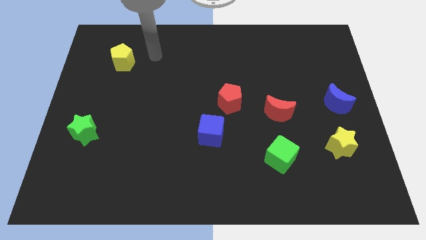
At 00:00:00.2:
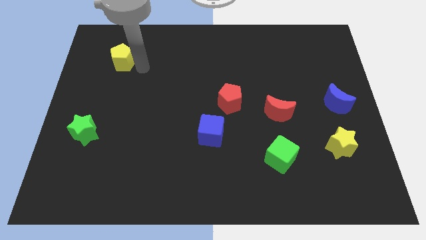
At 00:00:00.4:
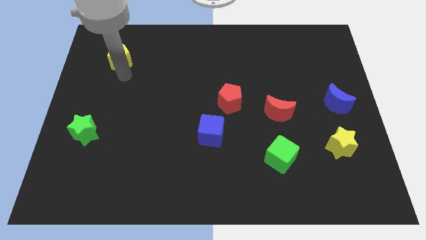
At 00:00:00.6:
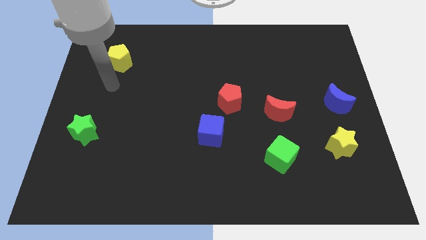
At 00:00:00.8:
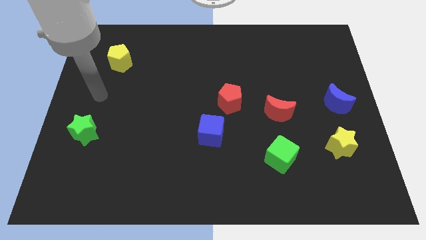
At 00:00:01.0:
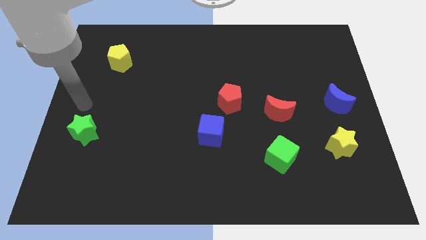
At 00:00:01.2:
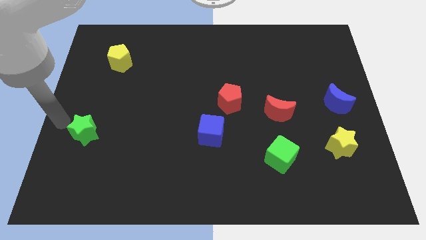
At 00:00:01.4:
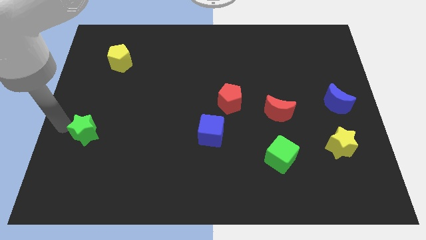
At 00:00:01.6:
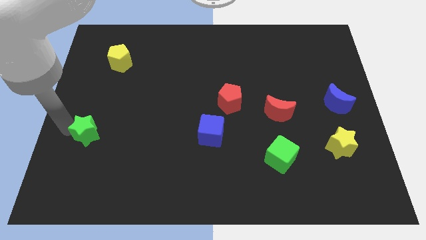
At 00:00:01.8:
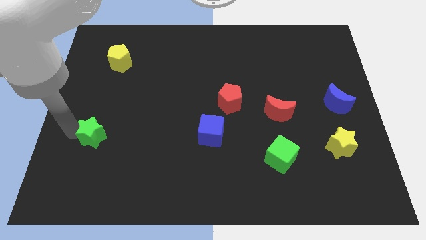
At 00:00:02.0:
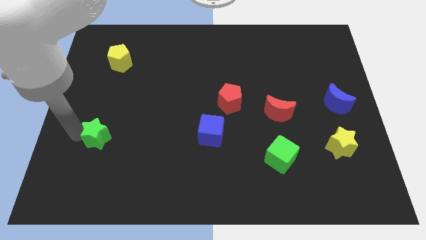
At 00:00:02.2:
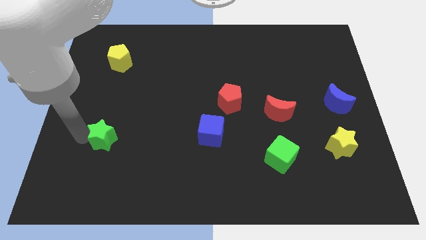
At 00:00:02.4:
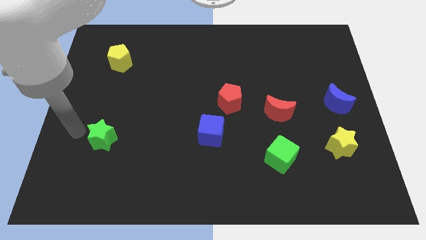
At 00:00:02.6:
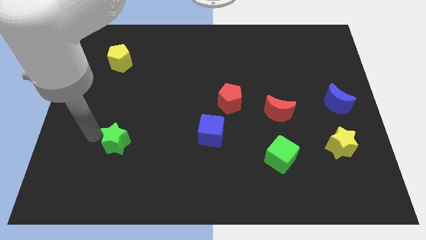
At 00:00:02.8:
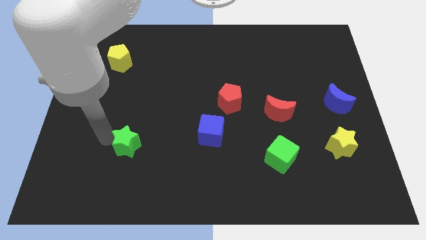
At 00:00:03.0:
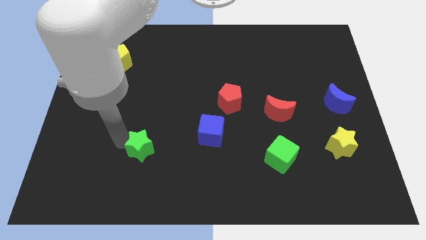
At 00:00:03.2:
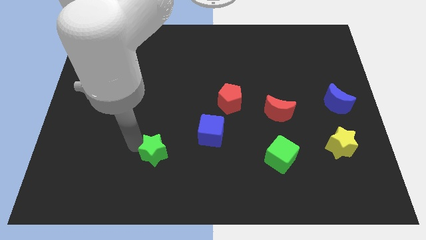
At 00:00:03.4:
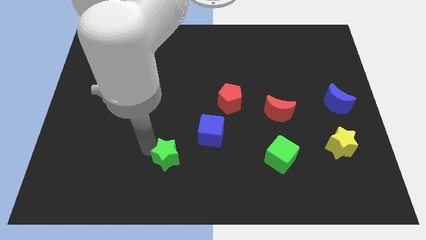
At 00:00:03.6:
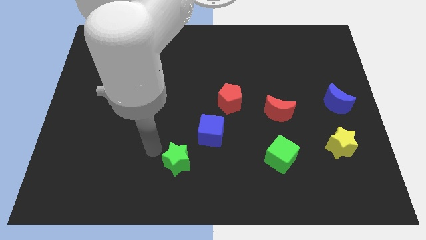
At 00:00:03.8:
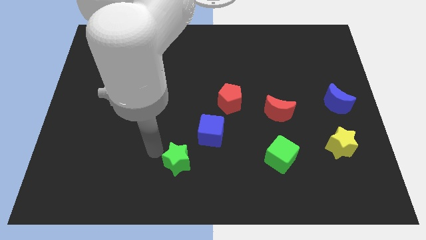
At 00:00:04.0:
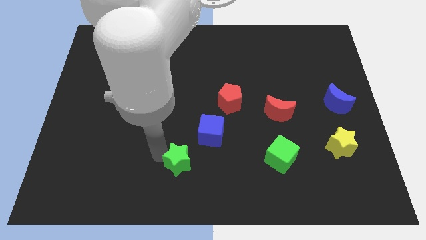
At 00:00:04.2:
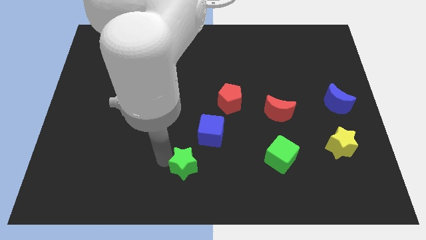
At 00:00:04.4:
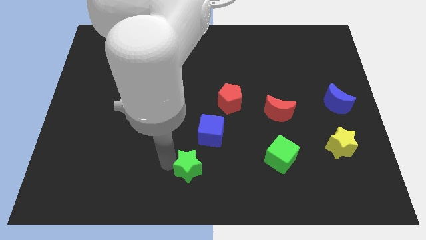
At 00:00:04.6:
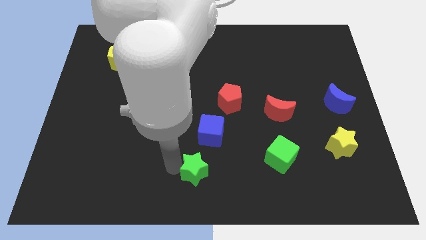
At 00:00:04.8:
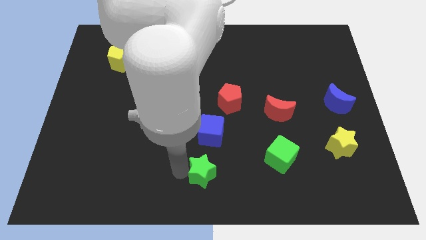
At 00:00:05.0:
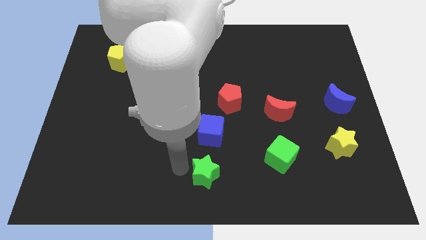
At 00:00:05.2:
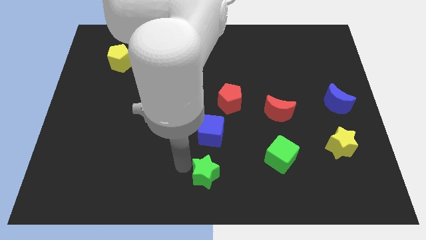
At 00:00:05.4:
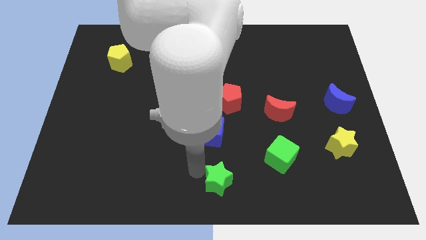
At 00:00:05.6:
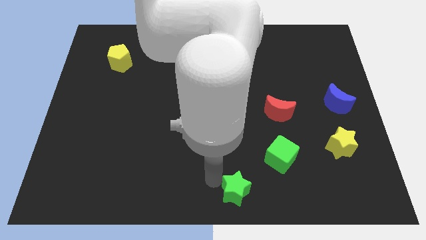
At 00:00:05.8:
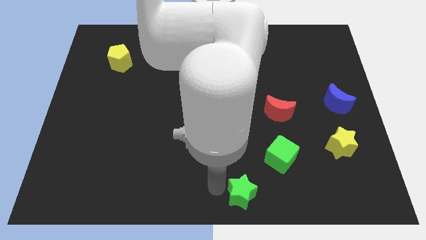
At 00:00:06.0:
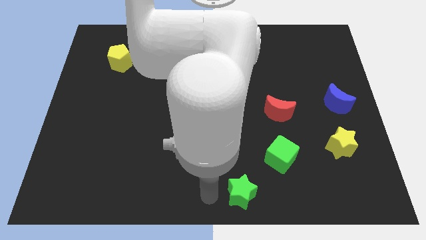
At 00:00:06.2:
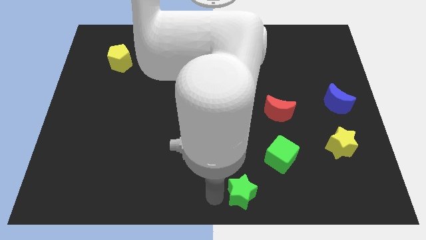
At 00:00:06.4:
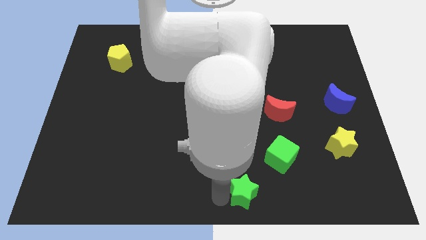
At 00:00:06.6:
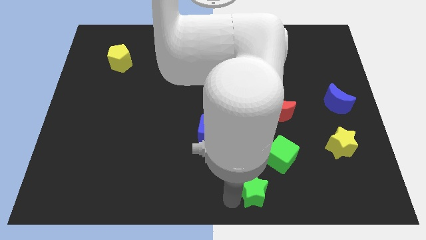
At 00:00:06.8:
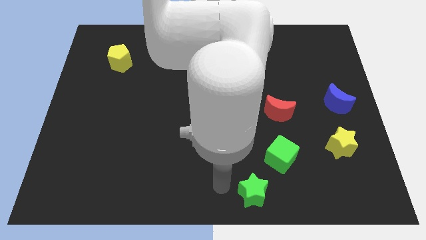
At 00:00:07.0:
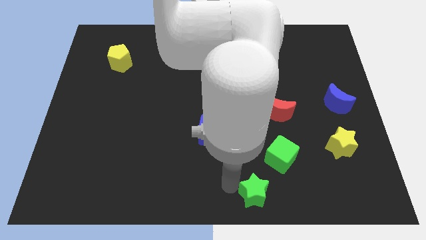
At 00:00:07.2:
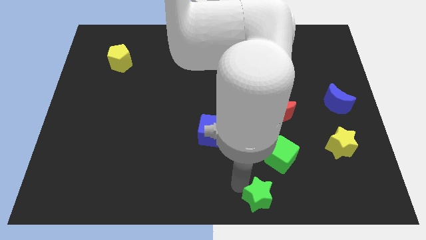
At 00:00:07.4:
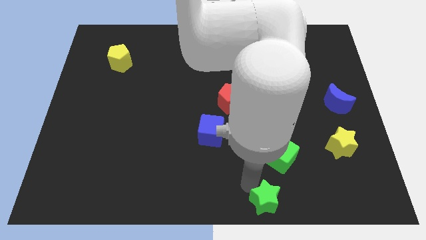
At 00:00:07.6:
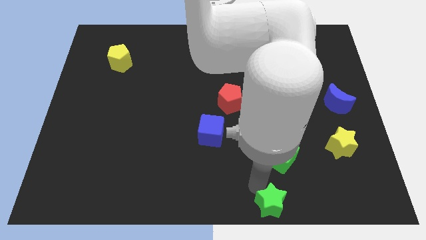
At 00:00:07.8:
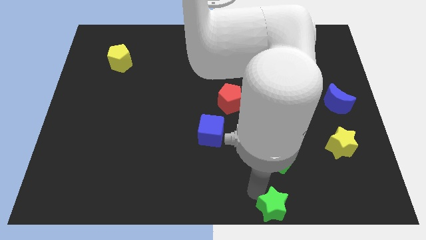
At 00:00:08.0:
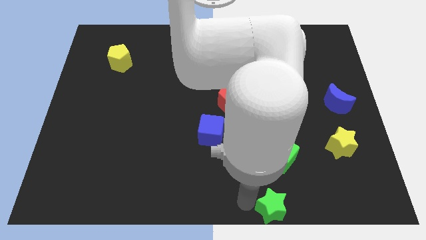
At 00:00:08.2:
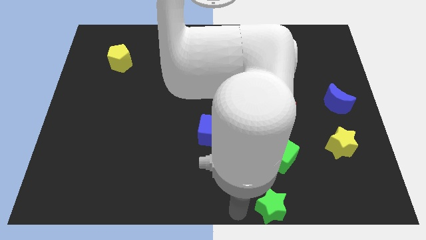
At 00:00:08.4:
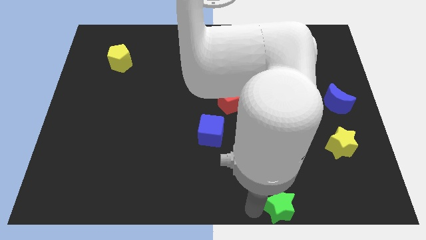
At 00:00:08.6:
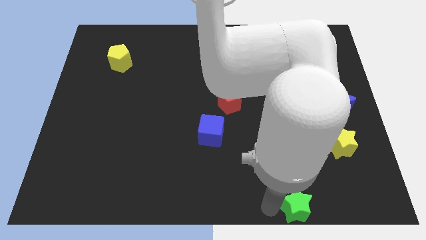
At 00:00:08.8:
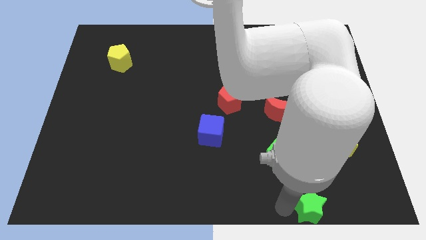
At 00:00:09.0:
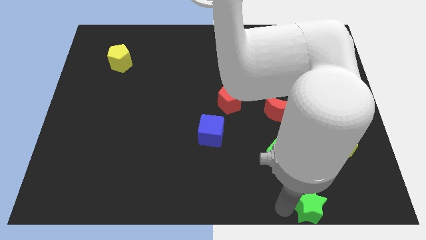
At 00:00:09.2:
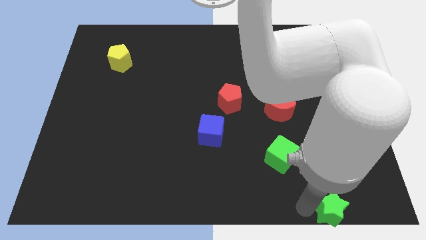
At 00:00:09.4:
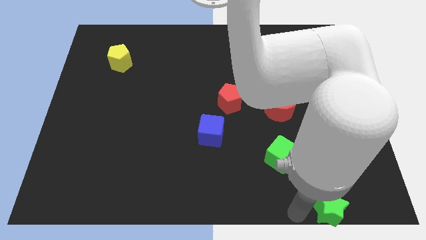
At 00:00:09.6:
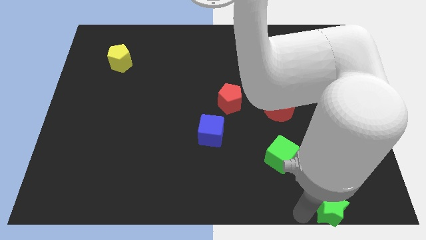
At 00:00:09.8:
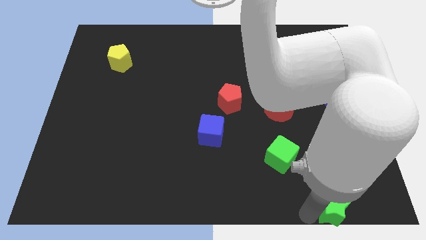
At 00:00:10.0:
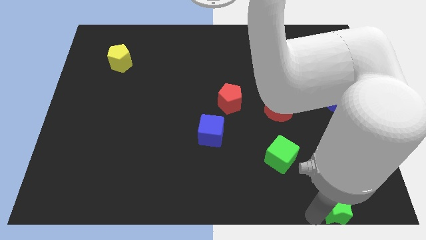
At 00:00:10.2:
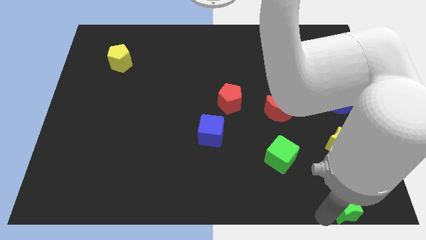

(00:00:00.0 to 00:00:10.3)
move the green star to the bottom right

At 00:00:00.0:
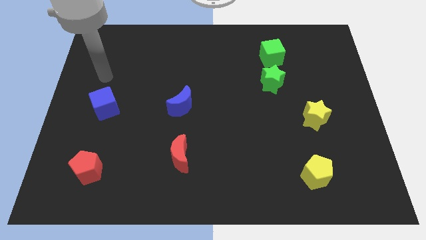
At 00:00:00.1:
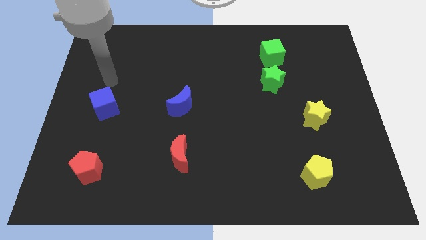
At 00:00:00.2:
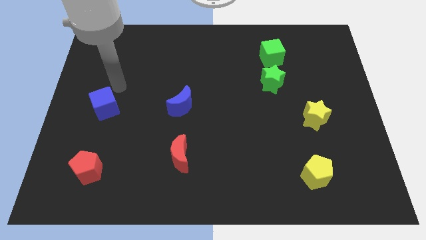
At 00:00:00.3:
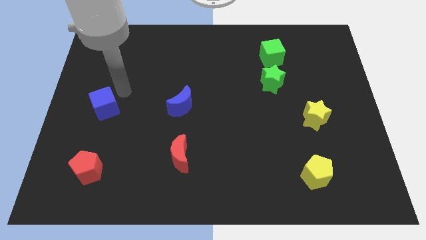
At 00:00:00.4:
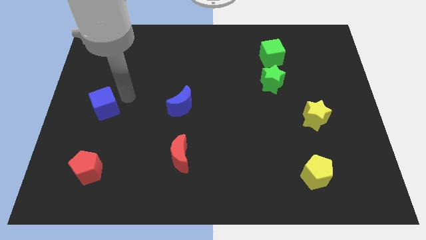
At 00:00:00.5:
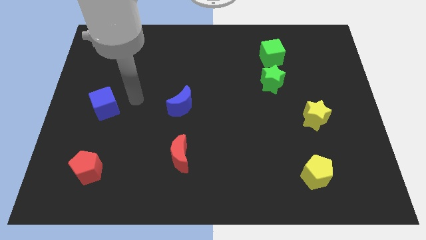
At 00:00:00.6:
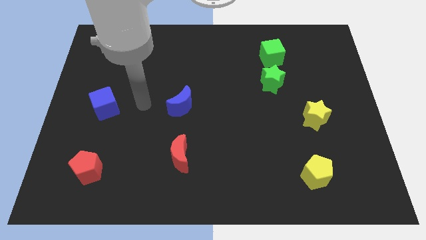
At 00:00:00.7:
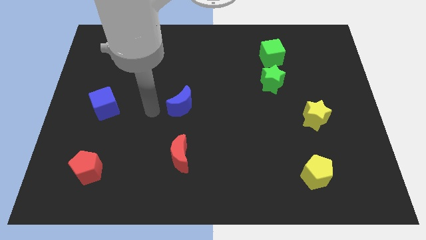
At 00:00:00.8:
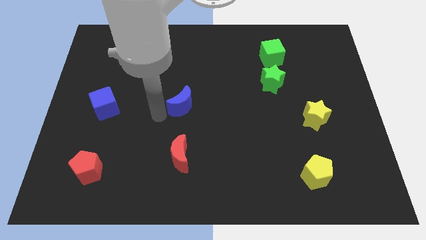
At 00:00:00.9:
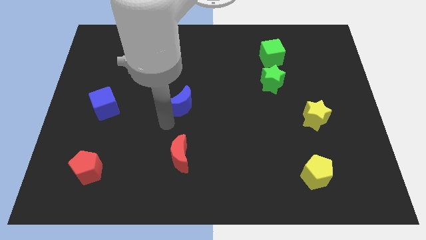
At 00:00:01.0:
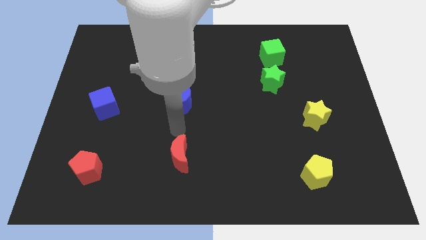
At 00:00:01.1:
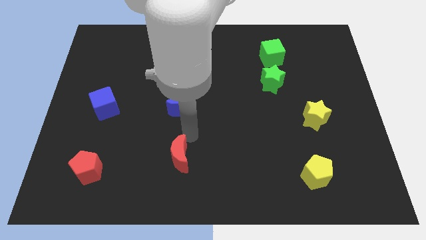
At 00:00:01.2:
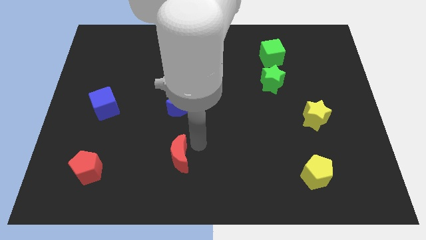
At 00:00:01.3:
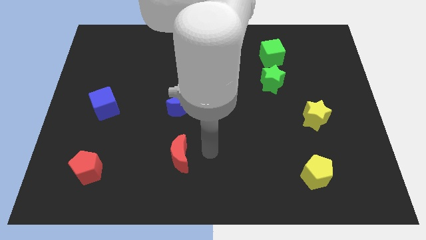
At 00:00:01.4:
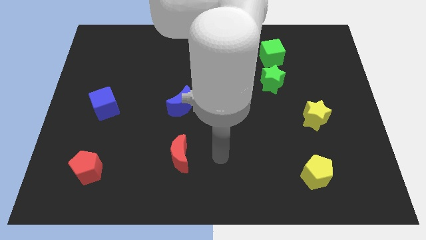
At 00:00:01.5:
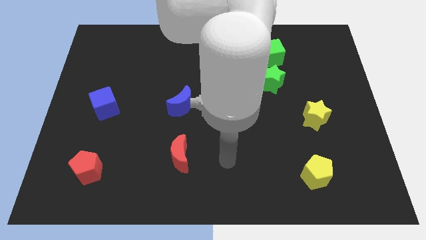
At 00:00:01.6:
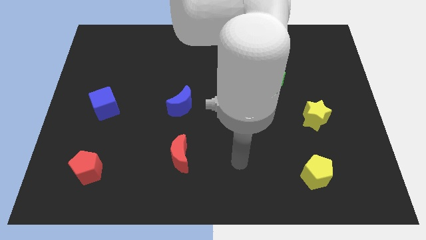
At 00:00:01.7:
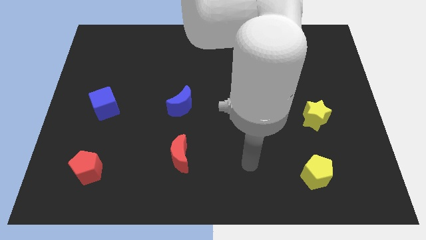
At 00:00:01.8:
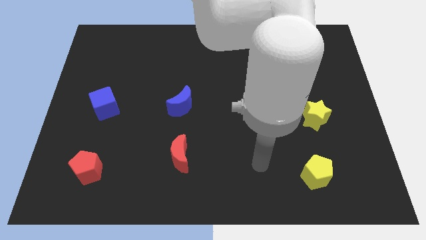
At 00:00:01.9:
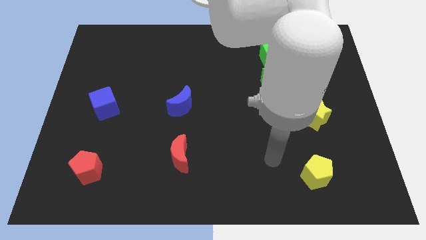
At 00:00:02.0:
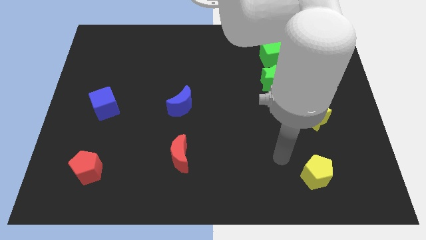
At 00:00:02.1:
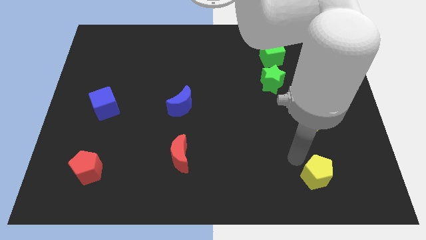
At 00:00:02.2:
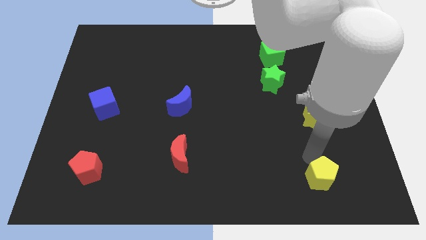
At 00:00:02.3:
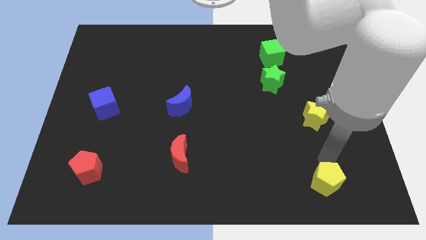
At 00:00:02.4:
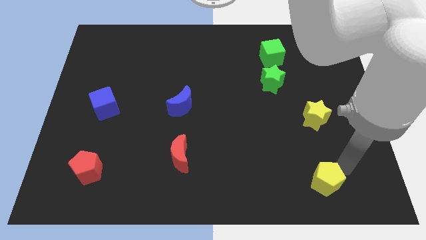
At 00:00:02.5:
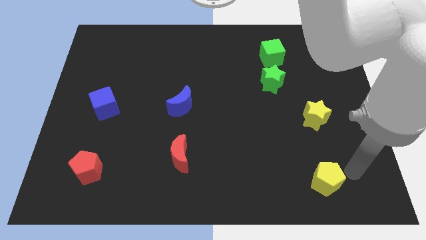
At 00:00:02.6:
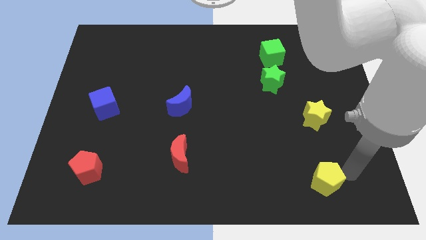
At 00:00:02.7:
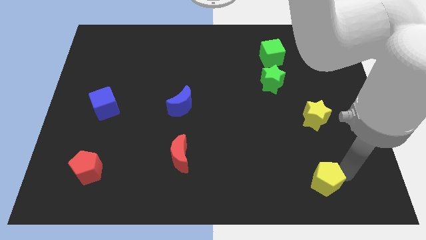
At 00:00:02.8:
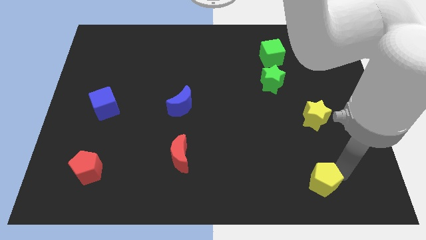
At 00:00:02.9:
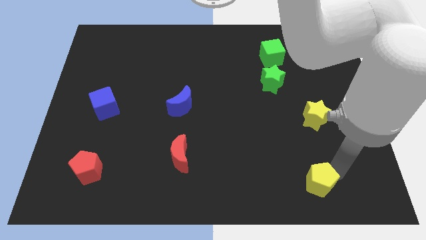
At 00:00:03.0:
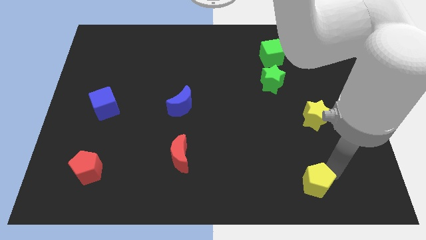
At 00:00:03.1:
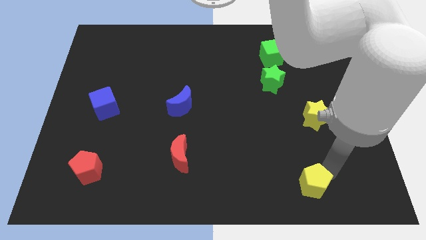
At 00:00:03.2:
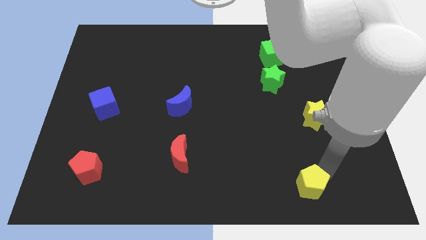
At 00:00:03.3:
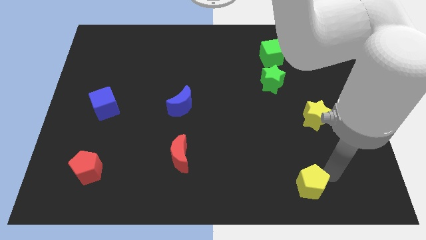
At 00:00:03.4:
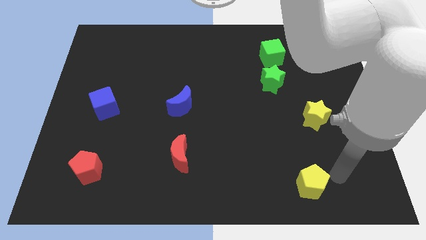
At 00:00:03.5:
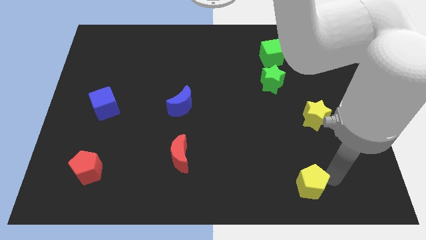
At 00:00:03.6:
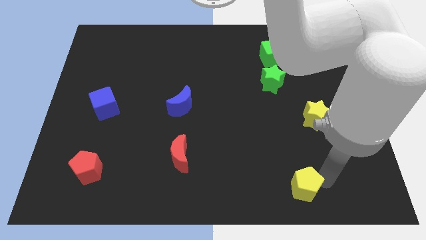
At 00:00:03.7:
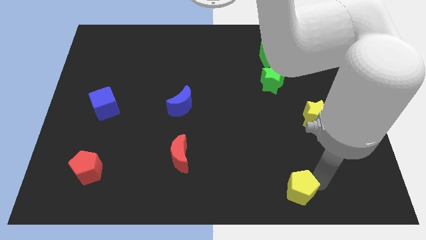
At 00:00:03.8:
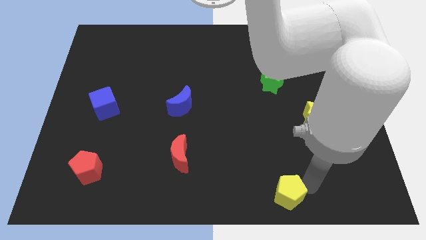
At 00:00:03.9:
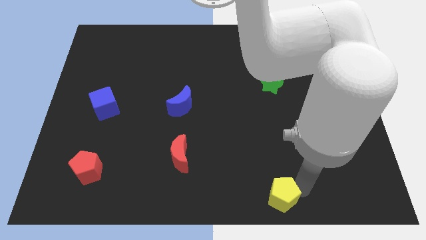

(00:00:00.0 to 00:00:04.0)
move the yellow pentagon to the bottom side
